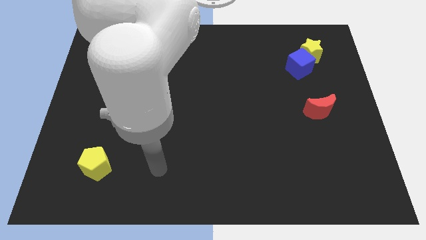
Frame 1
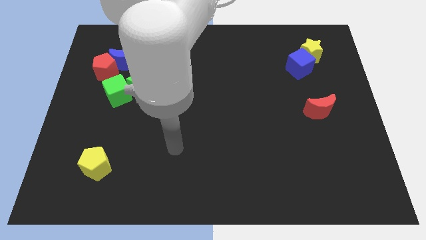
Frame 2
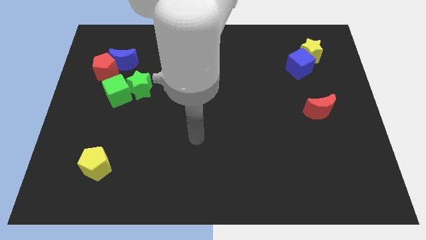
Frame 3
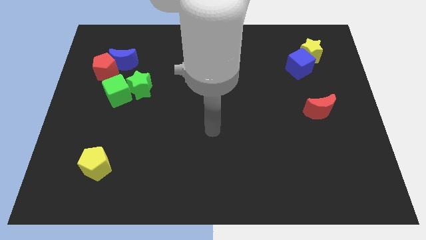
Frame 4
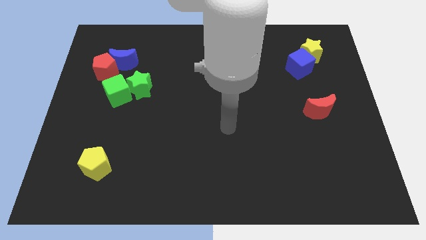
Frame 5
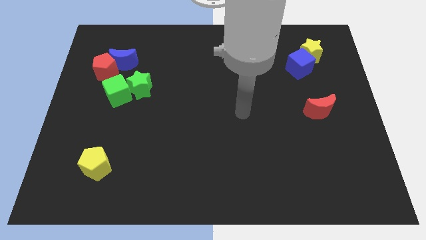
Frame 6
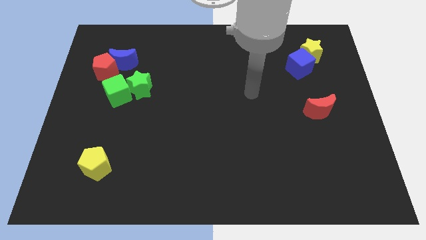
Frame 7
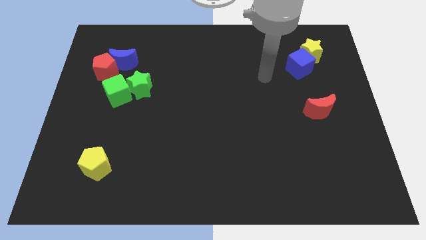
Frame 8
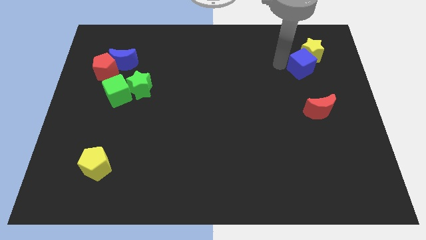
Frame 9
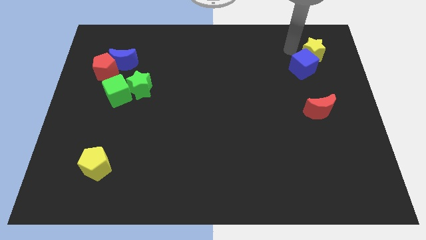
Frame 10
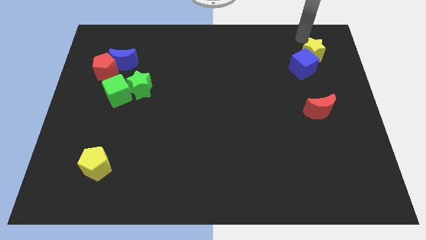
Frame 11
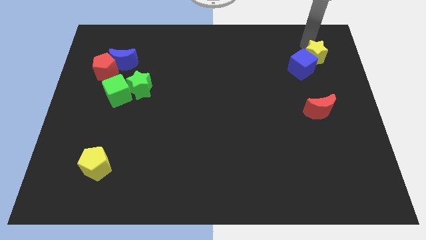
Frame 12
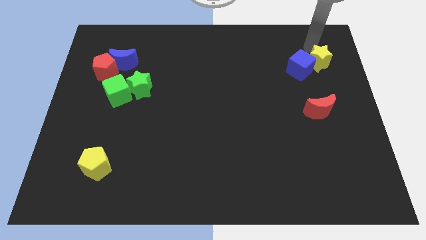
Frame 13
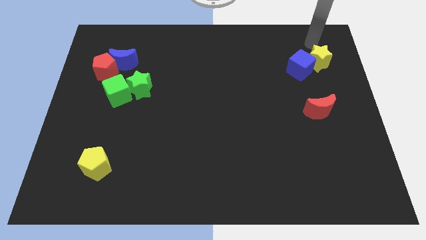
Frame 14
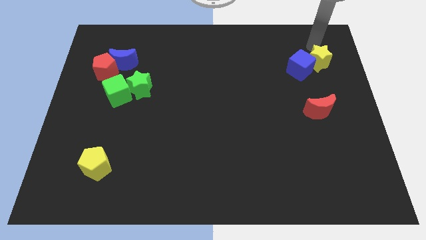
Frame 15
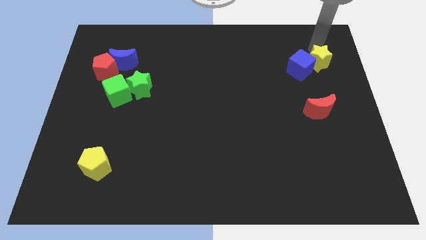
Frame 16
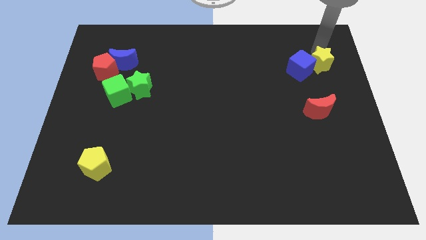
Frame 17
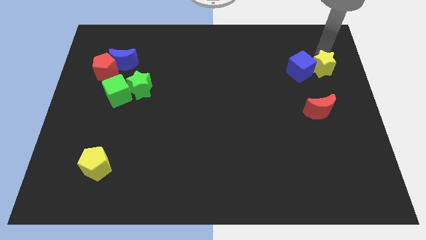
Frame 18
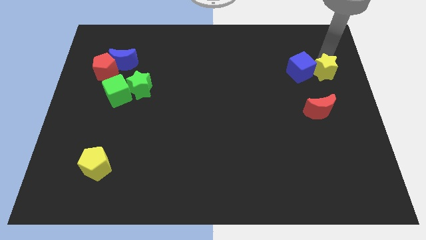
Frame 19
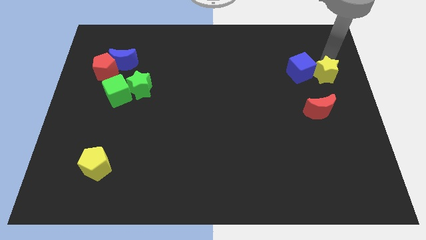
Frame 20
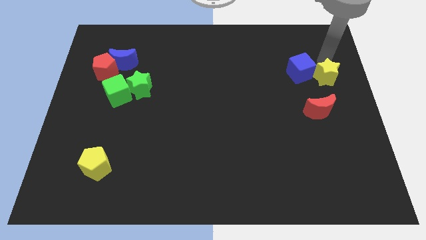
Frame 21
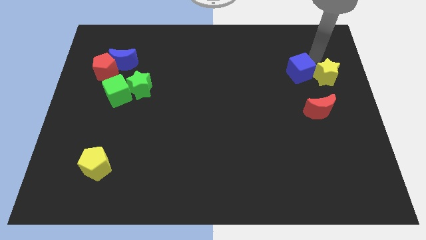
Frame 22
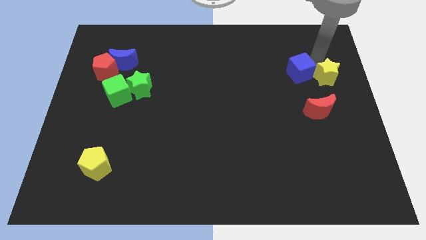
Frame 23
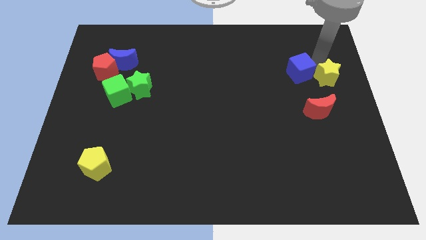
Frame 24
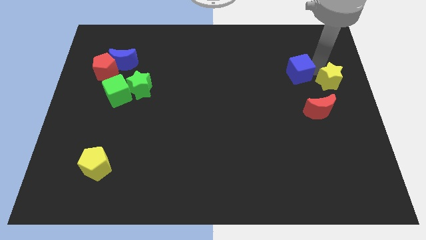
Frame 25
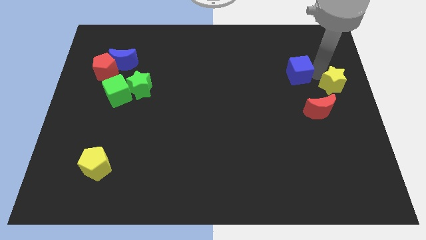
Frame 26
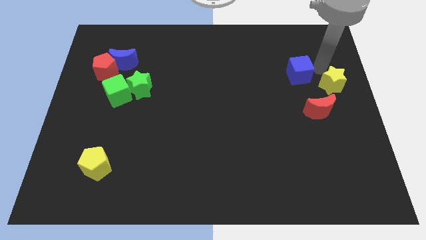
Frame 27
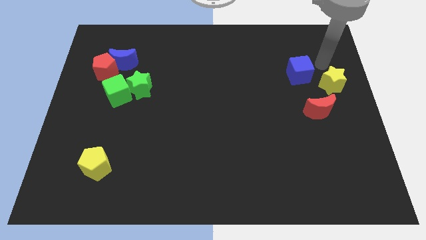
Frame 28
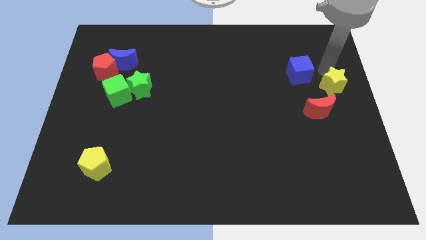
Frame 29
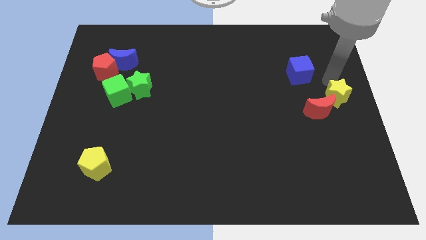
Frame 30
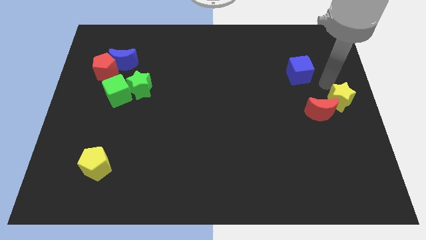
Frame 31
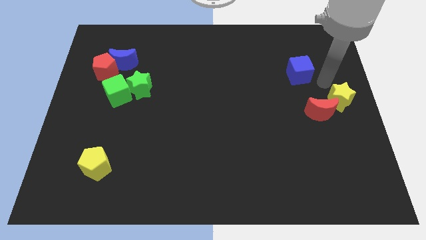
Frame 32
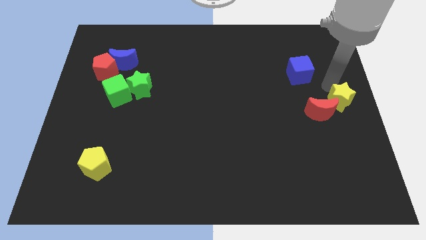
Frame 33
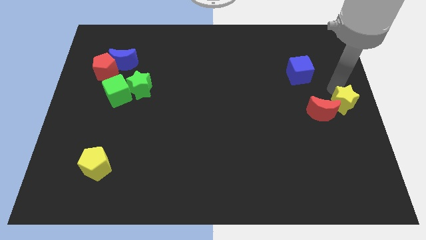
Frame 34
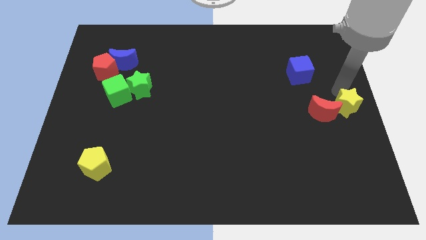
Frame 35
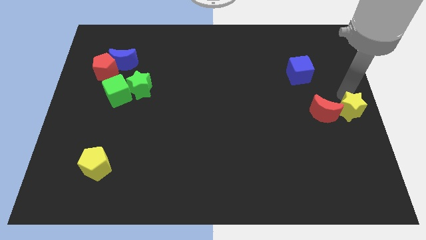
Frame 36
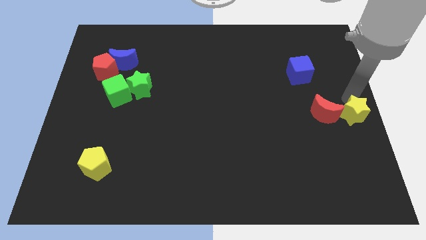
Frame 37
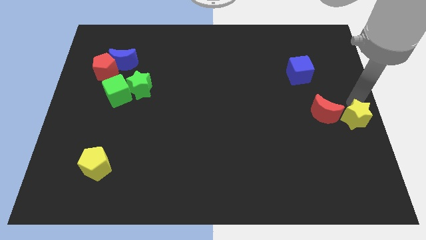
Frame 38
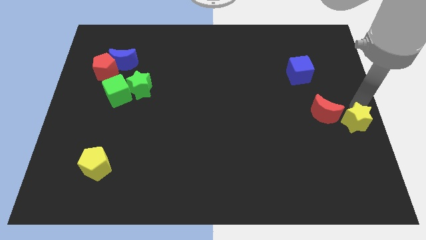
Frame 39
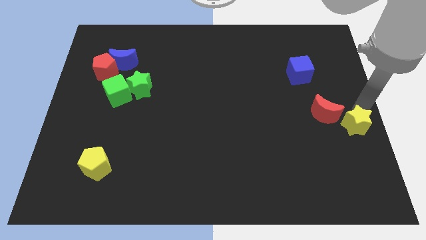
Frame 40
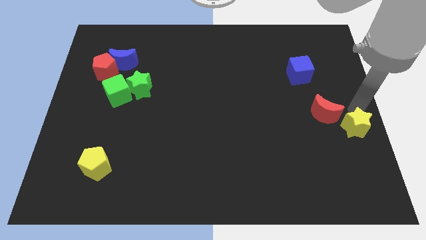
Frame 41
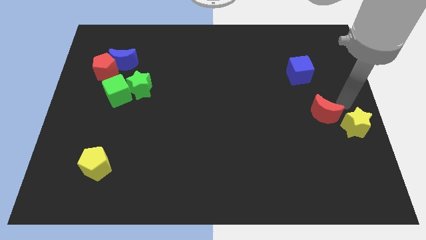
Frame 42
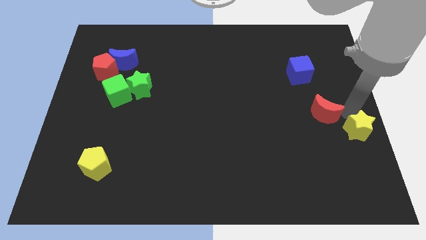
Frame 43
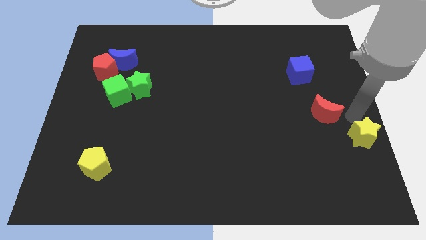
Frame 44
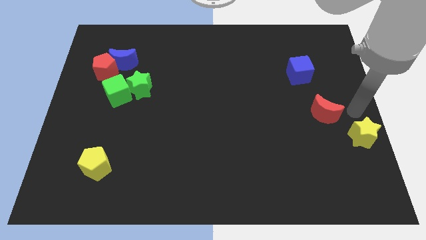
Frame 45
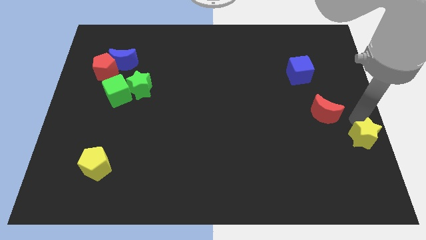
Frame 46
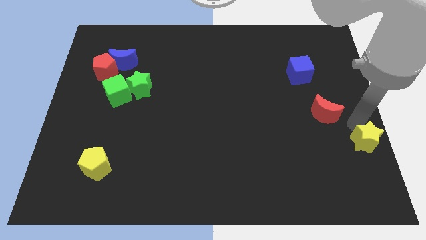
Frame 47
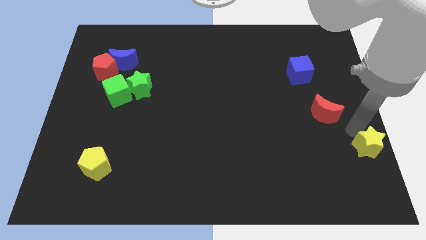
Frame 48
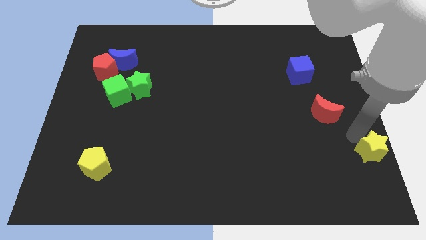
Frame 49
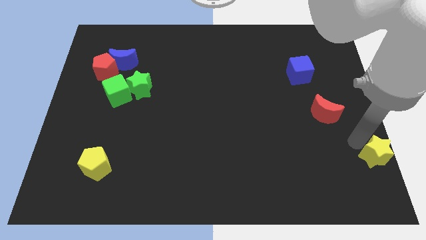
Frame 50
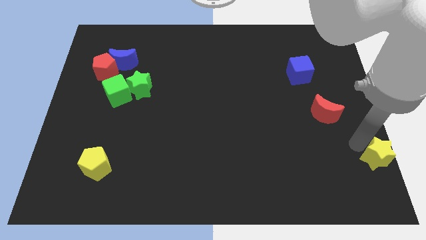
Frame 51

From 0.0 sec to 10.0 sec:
put the yellow star to the bottom right of the board
